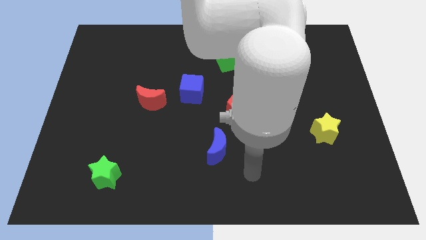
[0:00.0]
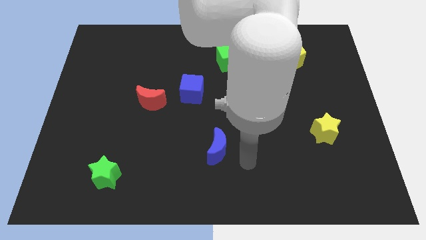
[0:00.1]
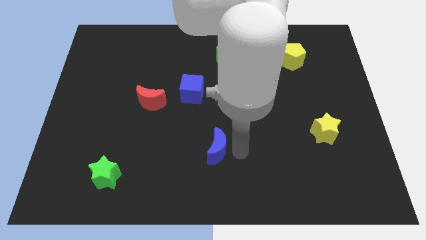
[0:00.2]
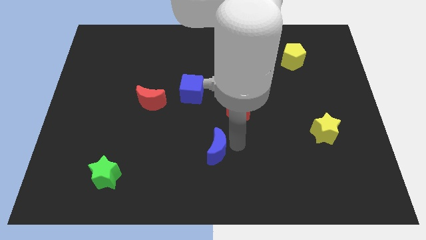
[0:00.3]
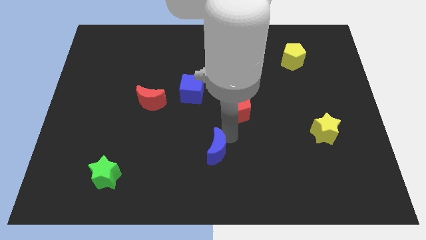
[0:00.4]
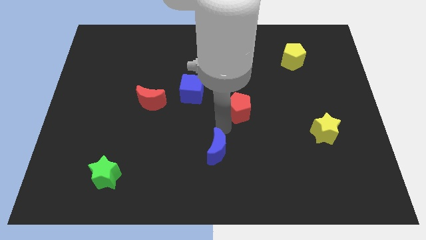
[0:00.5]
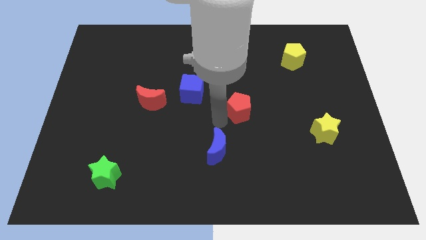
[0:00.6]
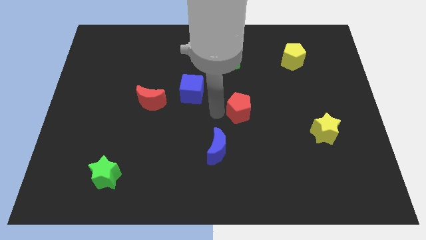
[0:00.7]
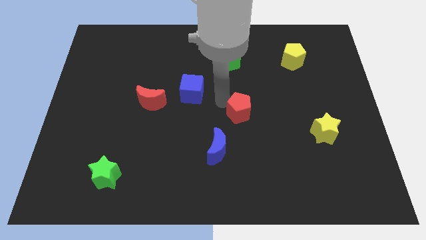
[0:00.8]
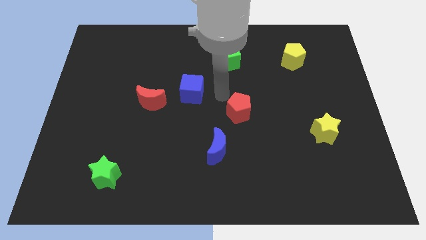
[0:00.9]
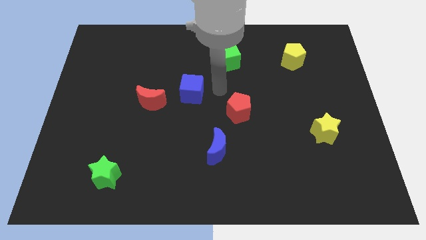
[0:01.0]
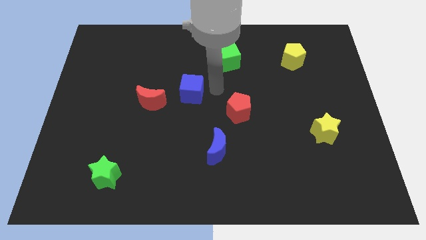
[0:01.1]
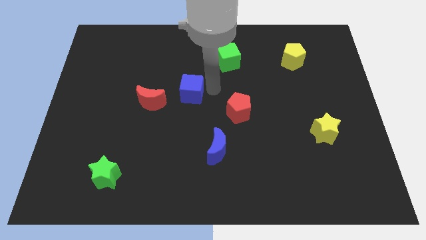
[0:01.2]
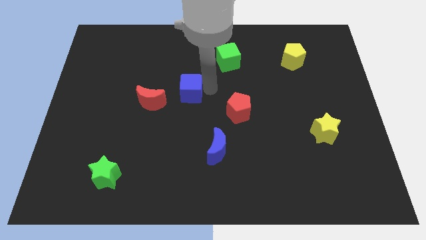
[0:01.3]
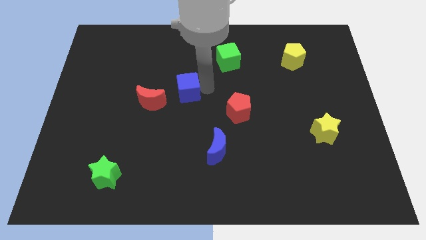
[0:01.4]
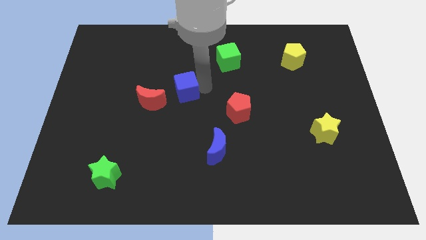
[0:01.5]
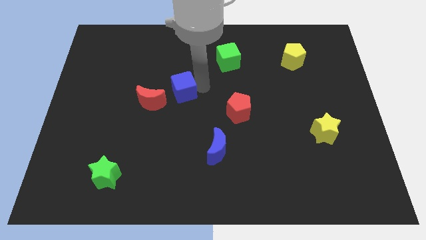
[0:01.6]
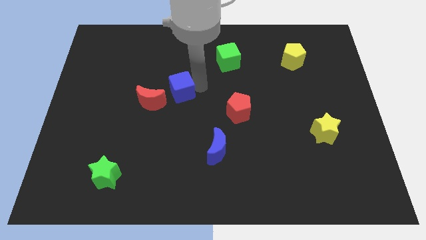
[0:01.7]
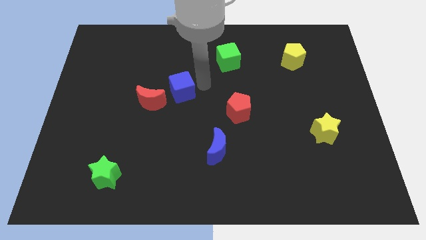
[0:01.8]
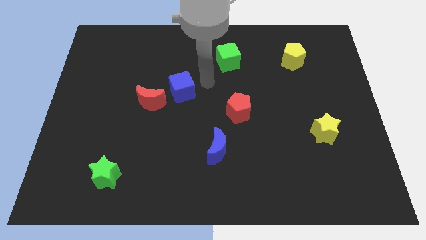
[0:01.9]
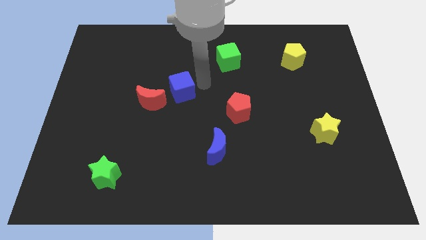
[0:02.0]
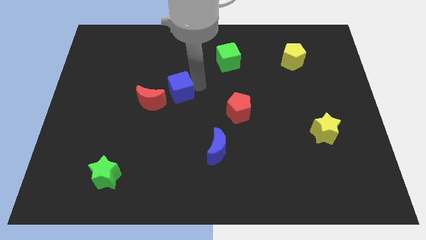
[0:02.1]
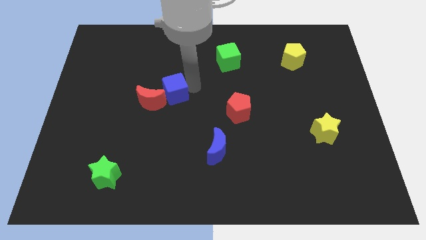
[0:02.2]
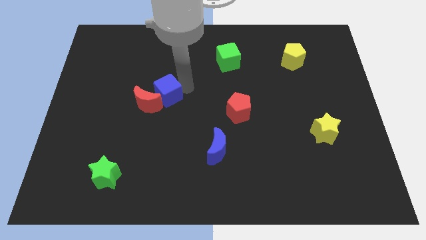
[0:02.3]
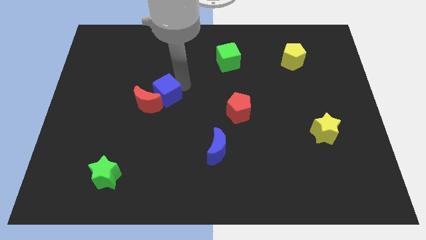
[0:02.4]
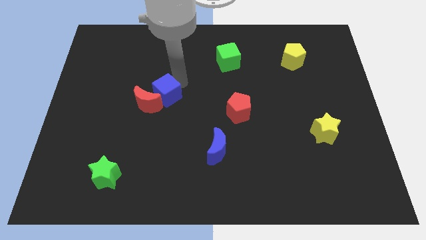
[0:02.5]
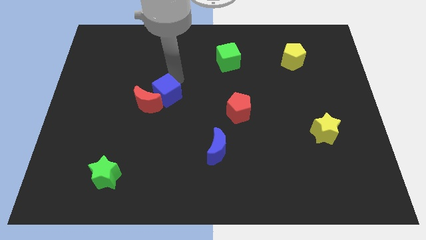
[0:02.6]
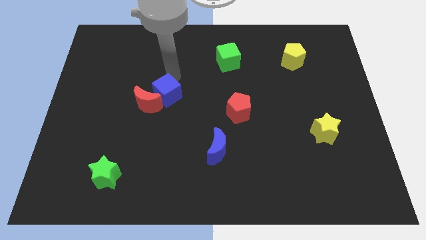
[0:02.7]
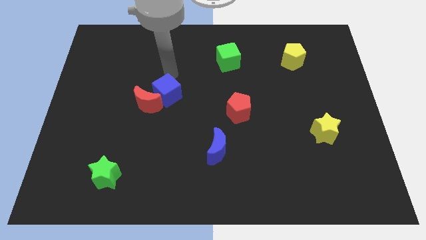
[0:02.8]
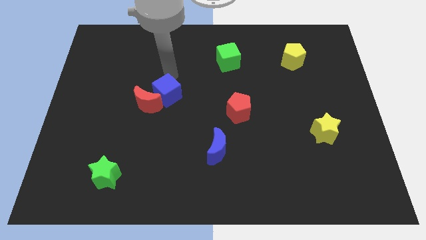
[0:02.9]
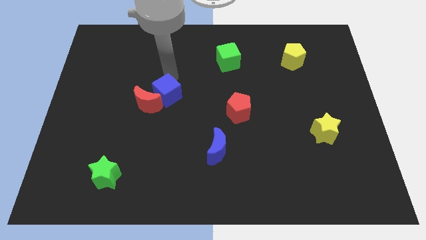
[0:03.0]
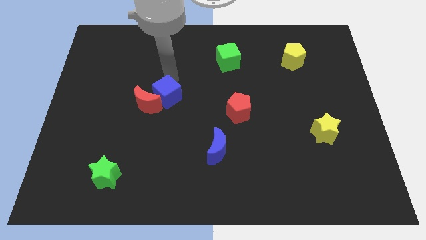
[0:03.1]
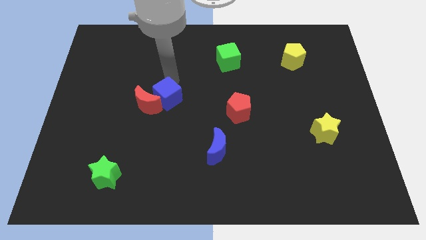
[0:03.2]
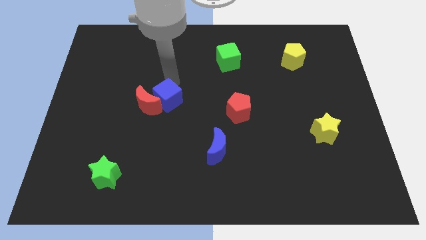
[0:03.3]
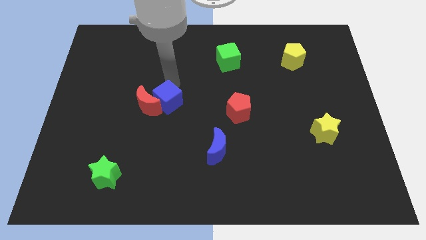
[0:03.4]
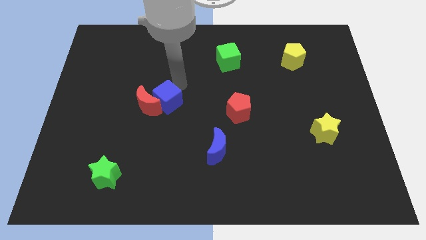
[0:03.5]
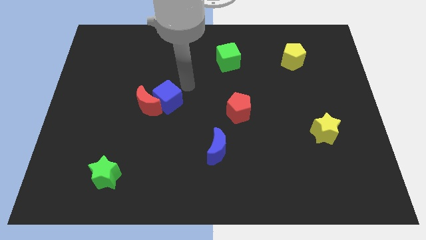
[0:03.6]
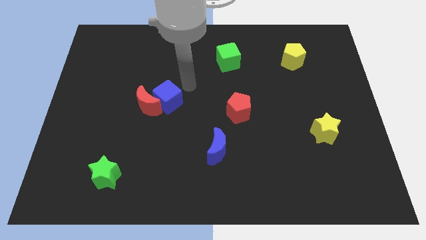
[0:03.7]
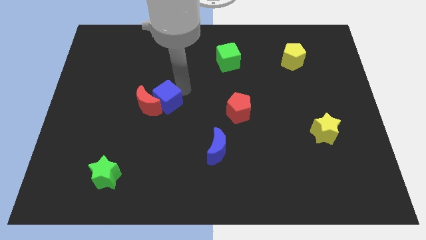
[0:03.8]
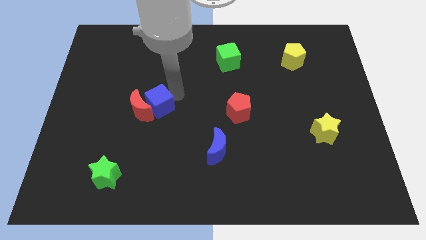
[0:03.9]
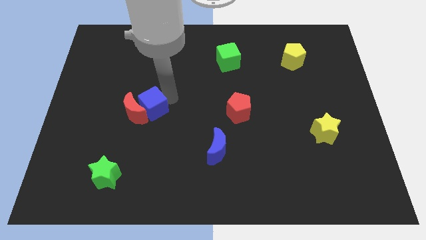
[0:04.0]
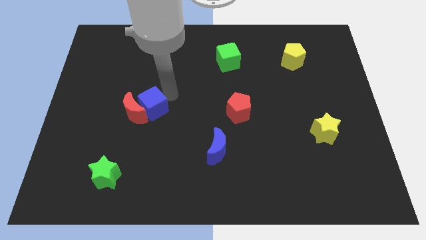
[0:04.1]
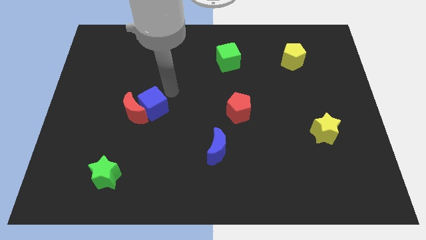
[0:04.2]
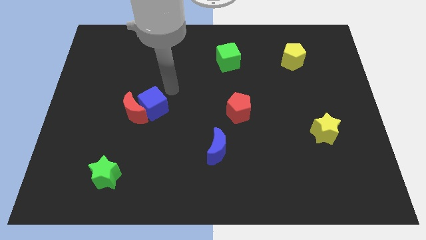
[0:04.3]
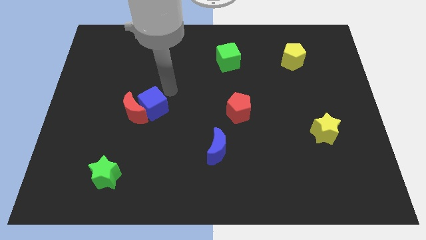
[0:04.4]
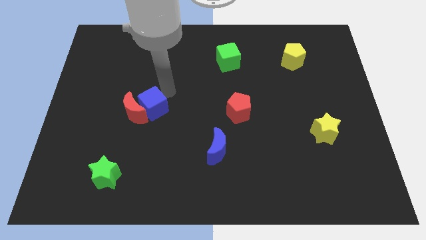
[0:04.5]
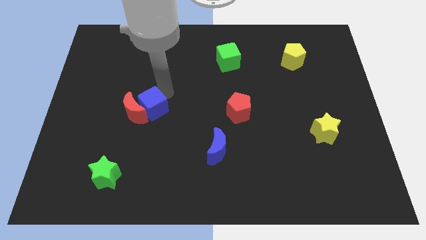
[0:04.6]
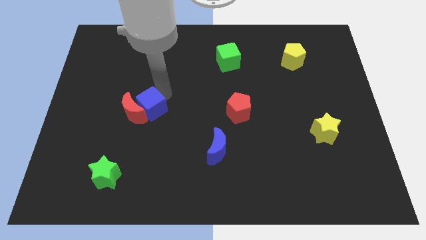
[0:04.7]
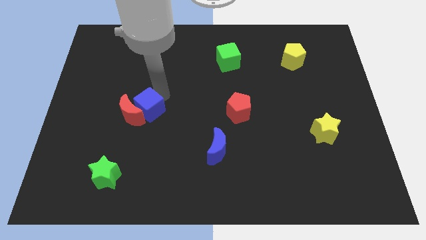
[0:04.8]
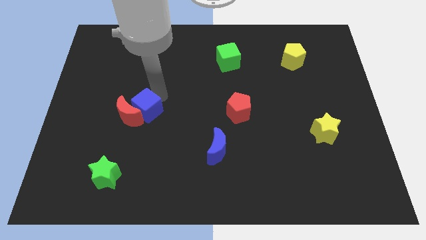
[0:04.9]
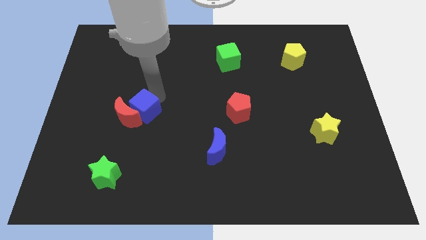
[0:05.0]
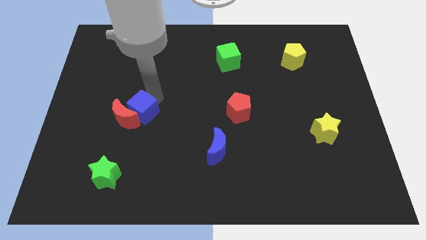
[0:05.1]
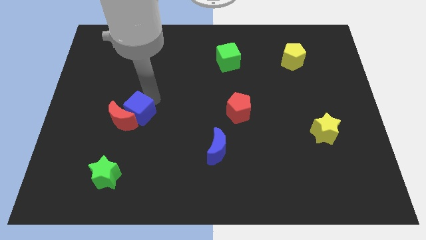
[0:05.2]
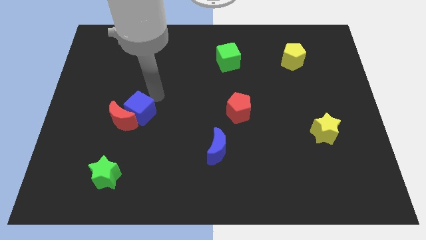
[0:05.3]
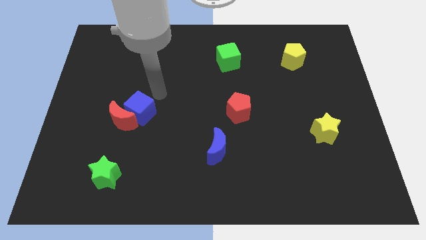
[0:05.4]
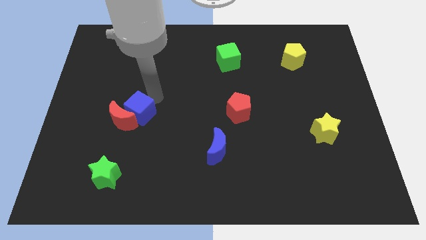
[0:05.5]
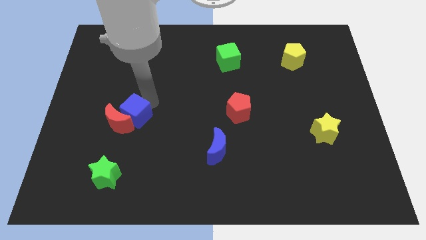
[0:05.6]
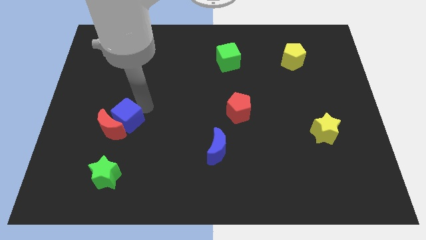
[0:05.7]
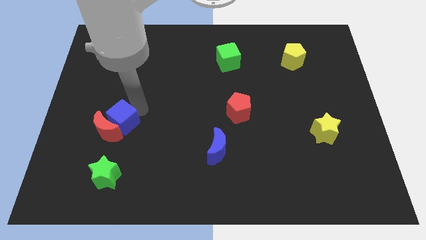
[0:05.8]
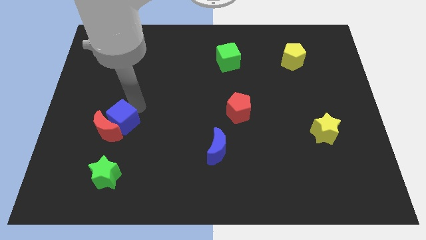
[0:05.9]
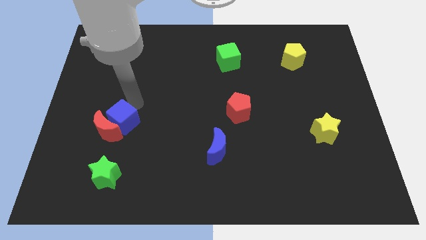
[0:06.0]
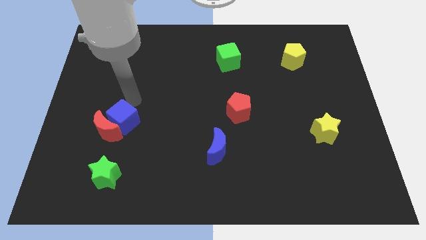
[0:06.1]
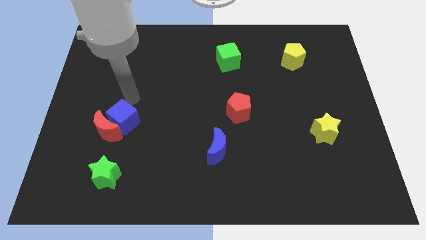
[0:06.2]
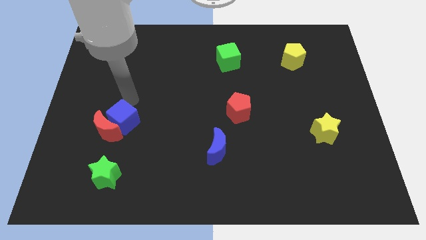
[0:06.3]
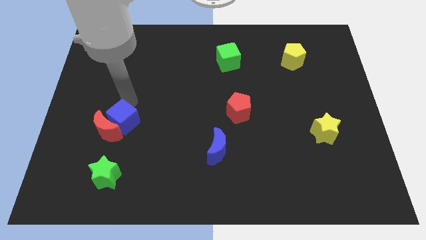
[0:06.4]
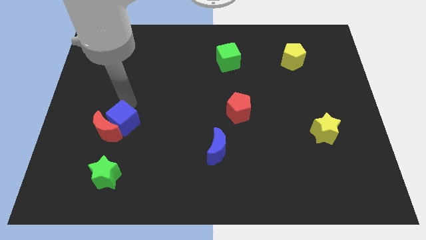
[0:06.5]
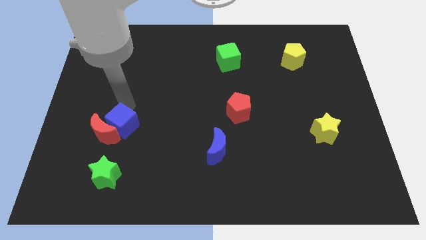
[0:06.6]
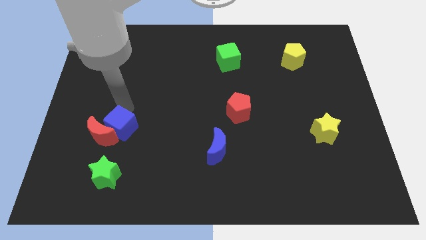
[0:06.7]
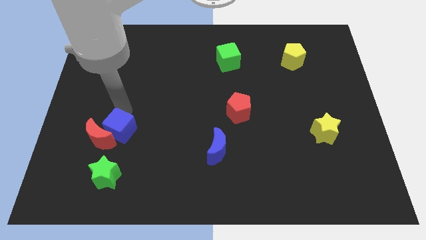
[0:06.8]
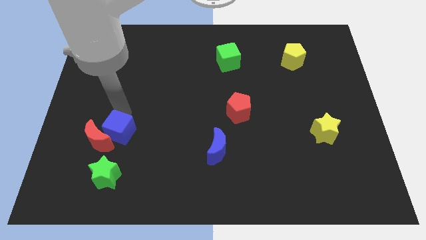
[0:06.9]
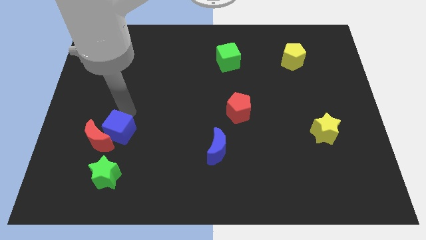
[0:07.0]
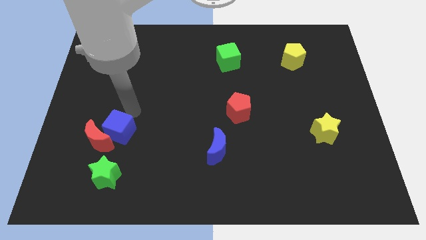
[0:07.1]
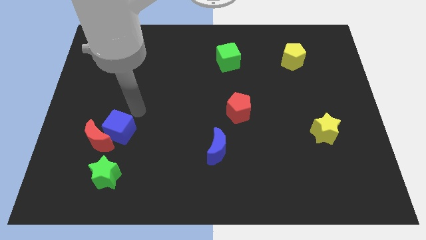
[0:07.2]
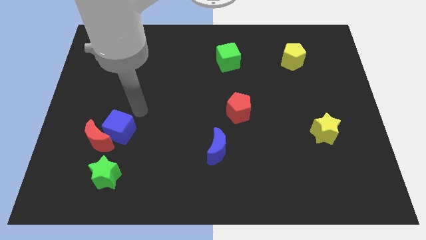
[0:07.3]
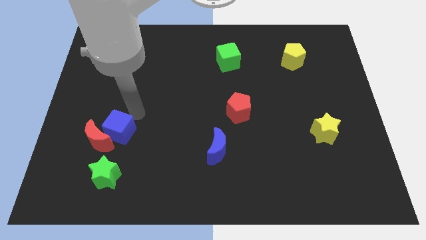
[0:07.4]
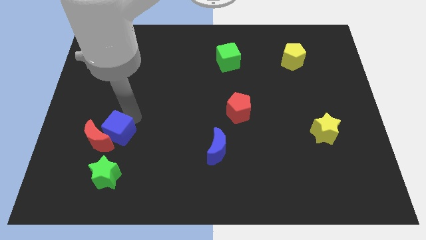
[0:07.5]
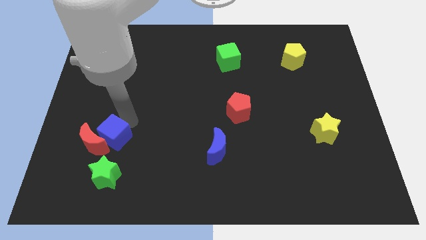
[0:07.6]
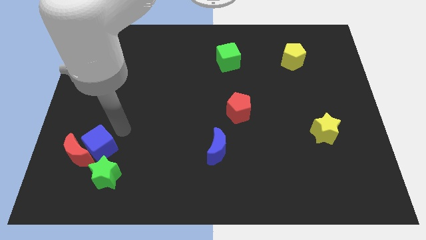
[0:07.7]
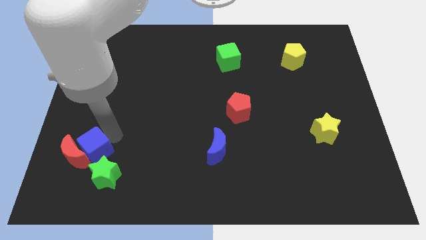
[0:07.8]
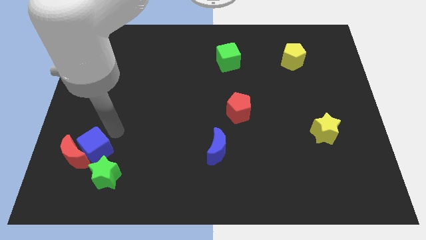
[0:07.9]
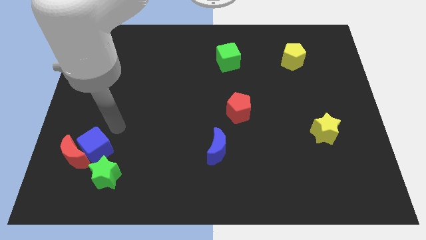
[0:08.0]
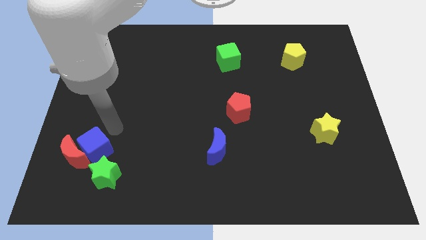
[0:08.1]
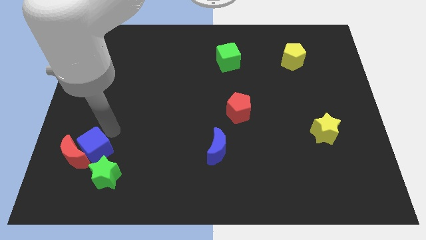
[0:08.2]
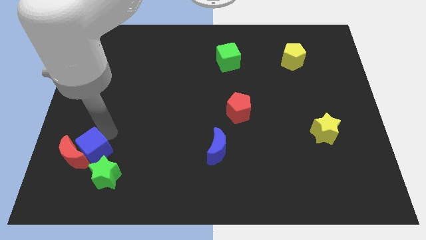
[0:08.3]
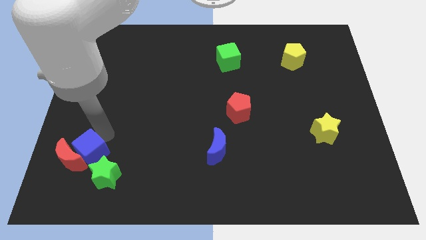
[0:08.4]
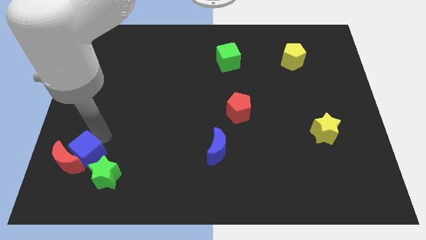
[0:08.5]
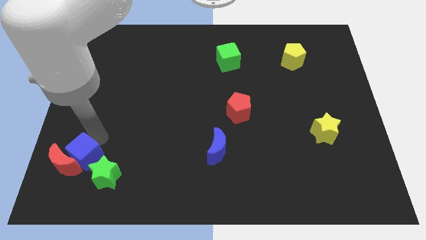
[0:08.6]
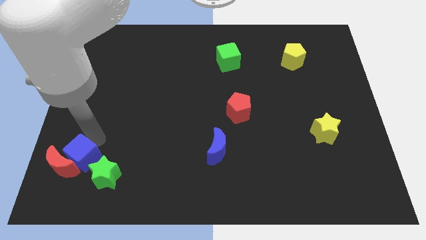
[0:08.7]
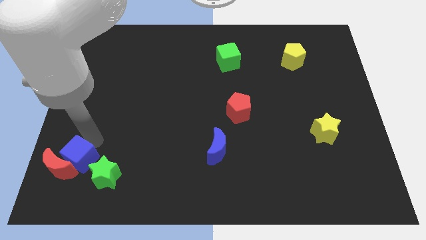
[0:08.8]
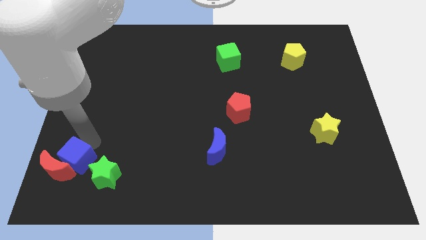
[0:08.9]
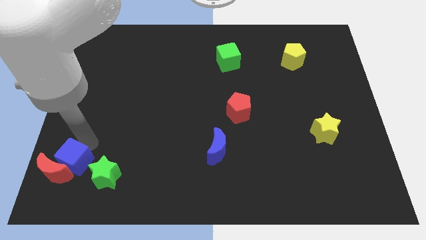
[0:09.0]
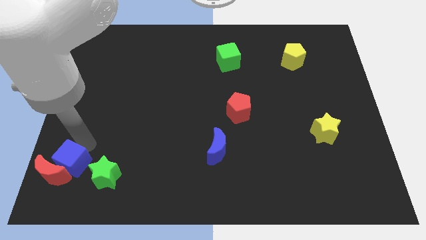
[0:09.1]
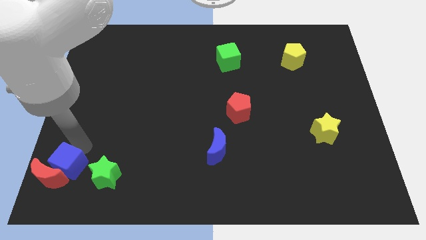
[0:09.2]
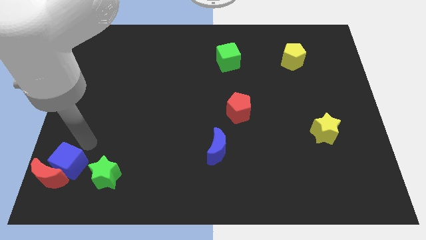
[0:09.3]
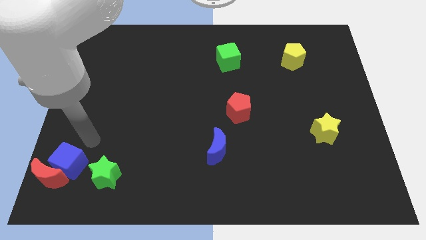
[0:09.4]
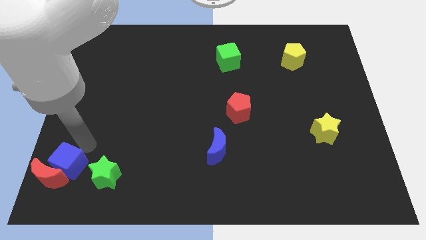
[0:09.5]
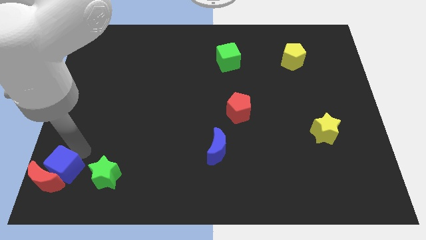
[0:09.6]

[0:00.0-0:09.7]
put the blue cube to the bottom left
